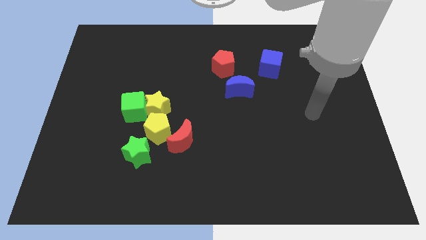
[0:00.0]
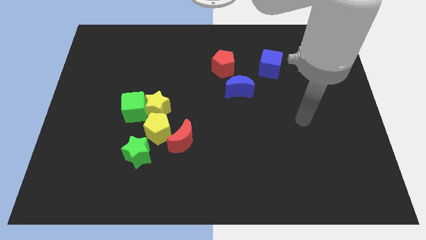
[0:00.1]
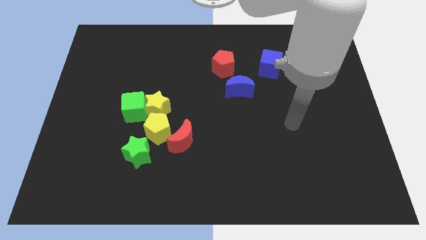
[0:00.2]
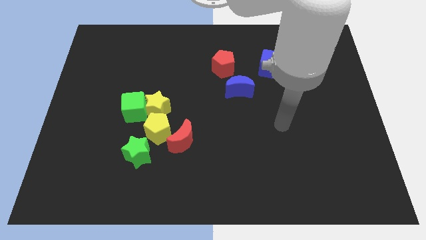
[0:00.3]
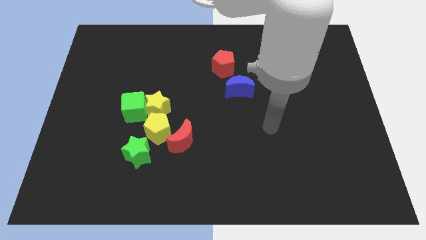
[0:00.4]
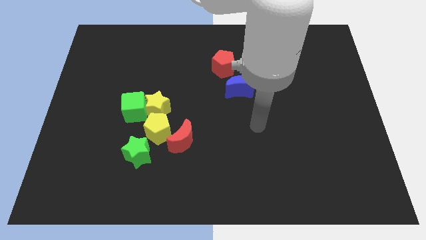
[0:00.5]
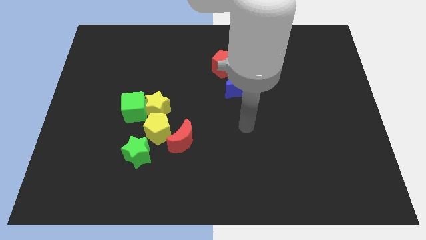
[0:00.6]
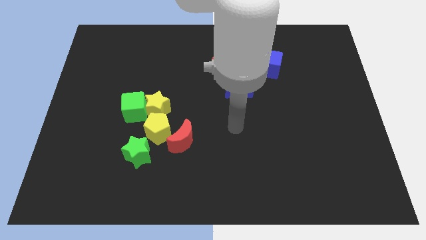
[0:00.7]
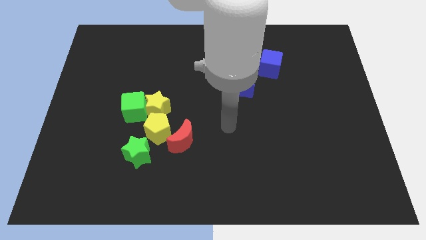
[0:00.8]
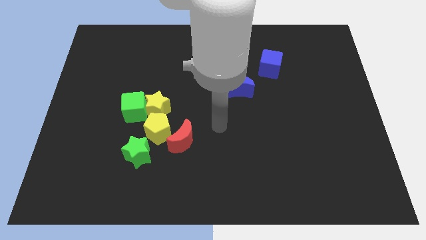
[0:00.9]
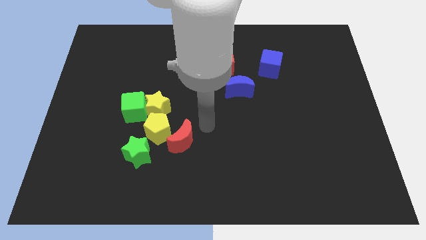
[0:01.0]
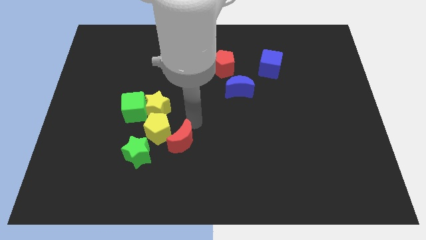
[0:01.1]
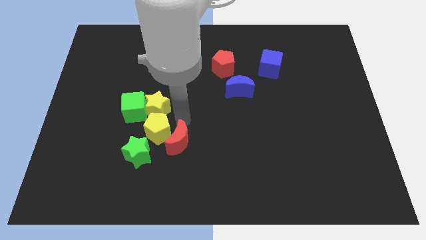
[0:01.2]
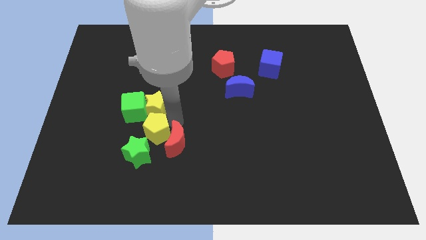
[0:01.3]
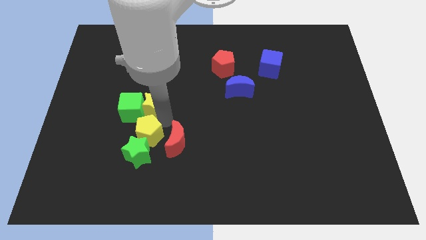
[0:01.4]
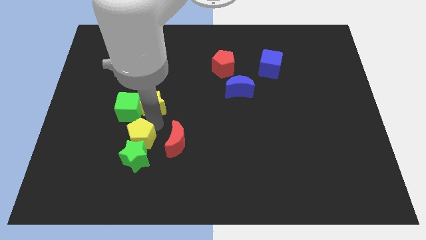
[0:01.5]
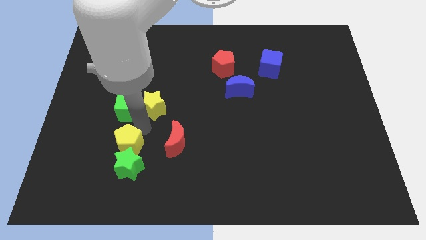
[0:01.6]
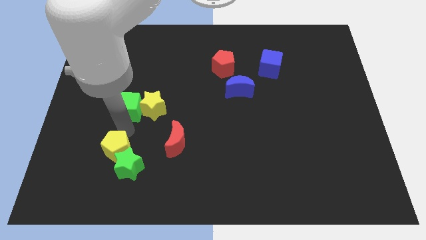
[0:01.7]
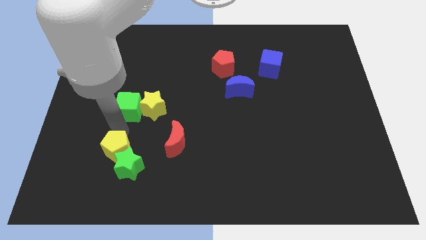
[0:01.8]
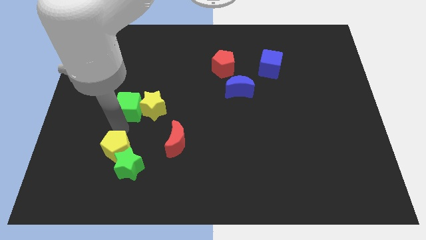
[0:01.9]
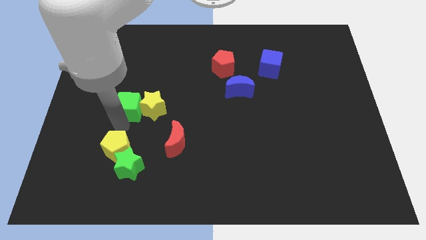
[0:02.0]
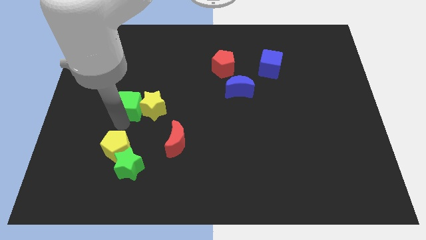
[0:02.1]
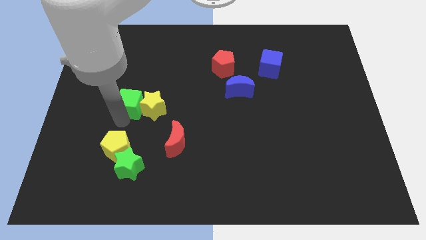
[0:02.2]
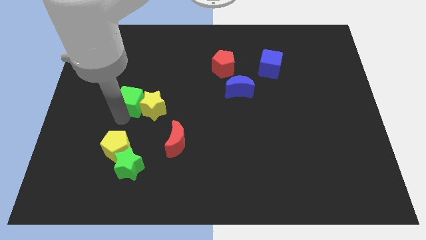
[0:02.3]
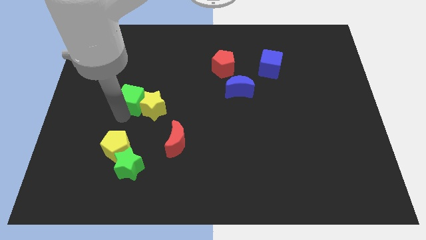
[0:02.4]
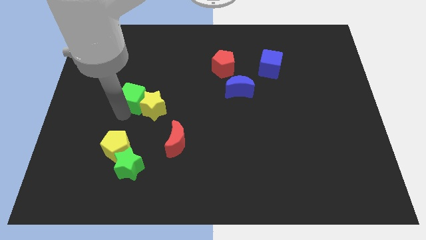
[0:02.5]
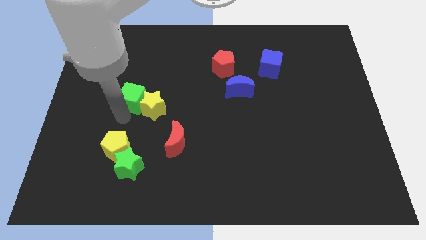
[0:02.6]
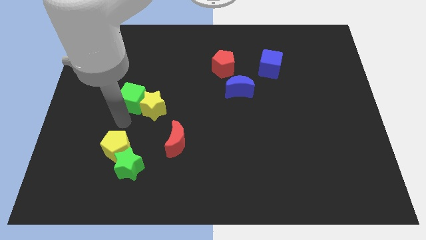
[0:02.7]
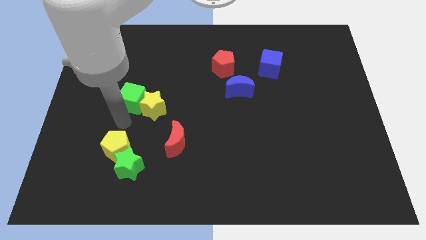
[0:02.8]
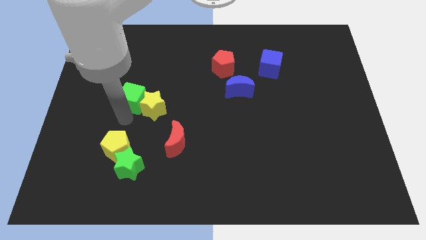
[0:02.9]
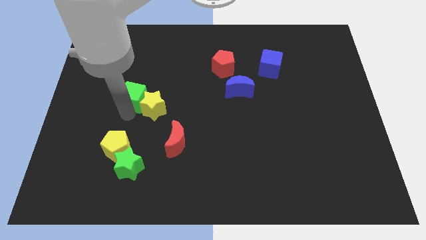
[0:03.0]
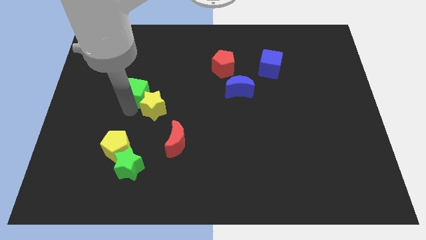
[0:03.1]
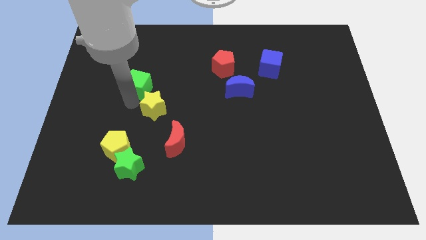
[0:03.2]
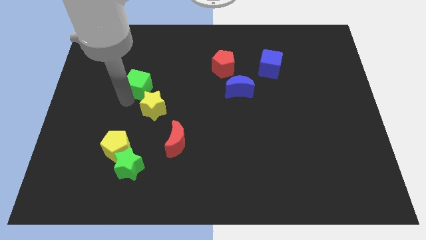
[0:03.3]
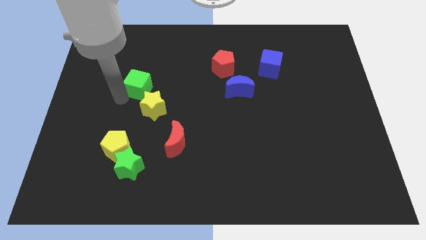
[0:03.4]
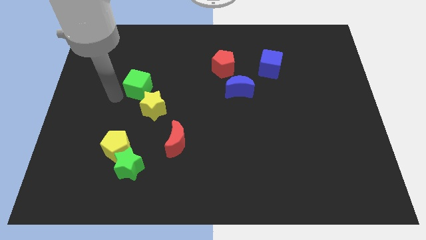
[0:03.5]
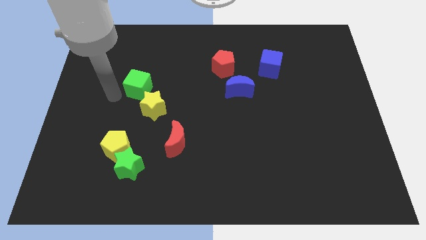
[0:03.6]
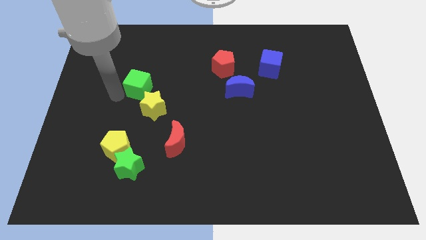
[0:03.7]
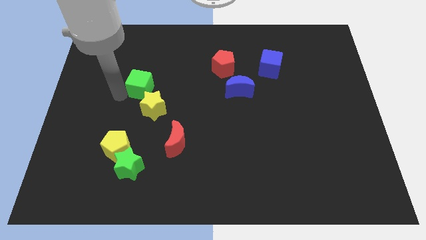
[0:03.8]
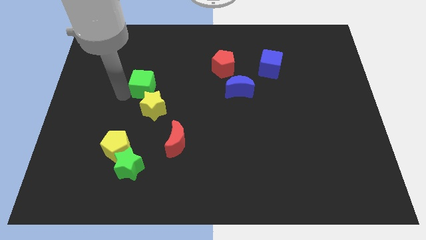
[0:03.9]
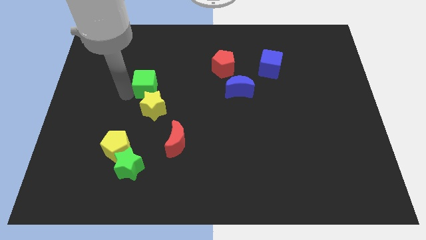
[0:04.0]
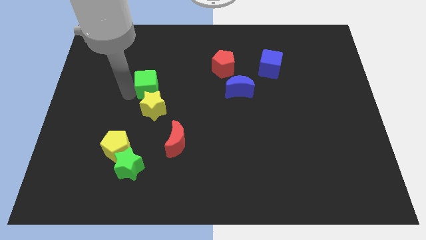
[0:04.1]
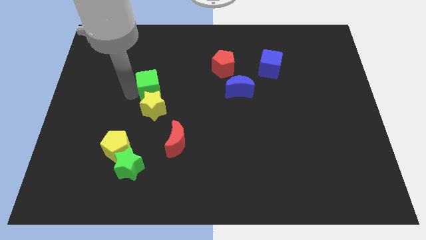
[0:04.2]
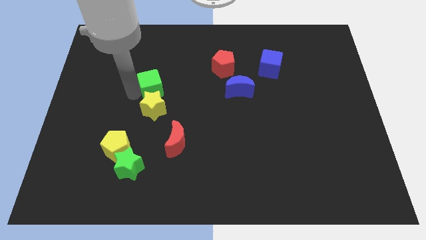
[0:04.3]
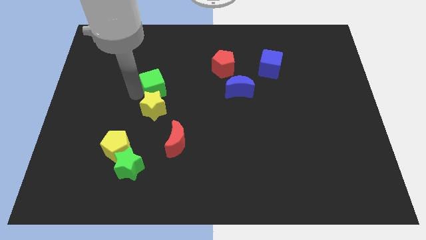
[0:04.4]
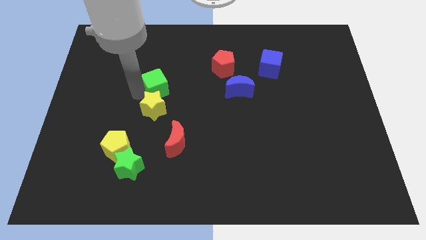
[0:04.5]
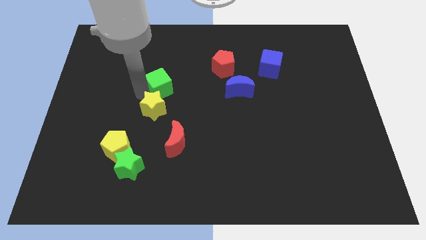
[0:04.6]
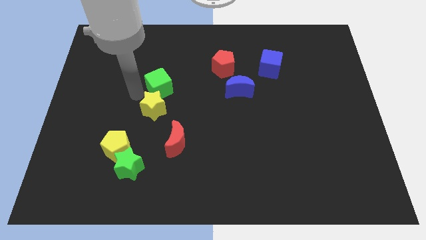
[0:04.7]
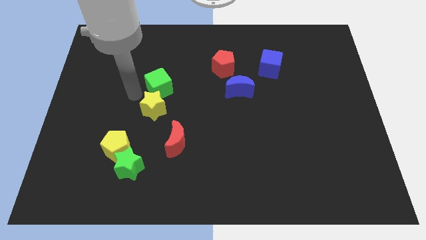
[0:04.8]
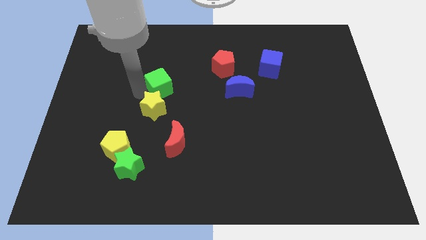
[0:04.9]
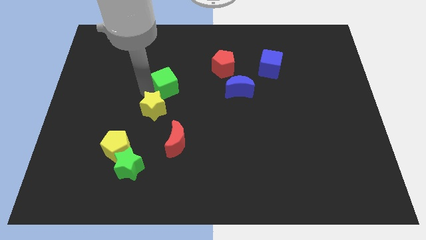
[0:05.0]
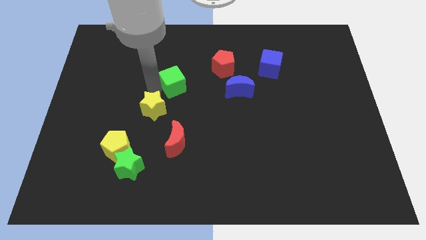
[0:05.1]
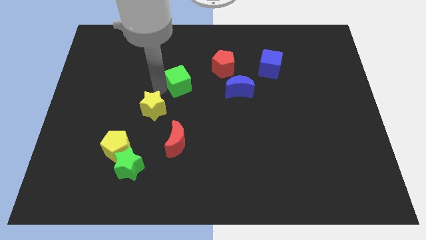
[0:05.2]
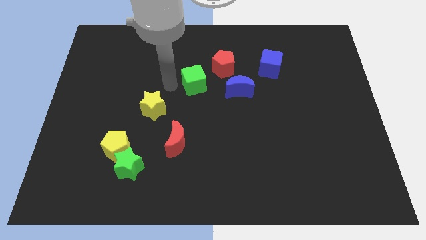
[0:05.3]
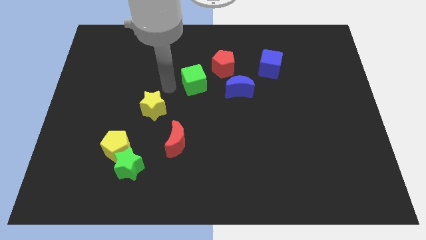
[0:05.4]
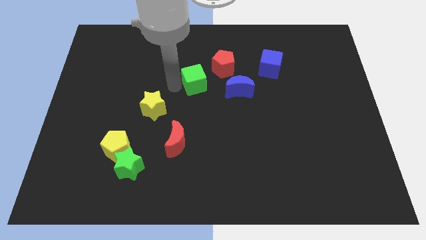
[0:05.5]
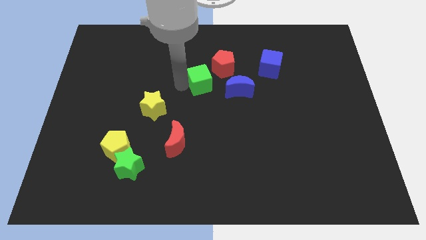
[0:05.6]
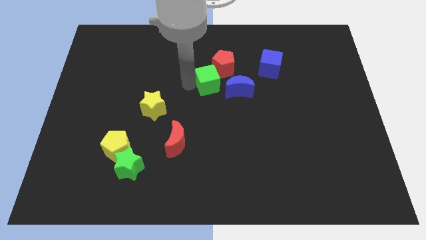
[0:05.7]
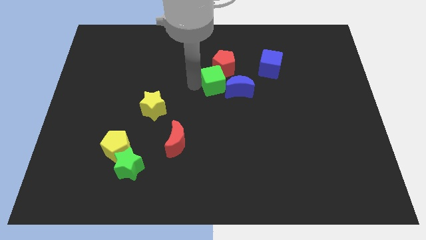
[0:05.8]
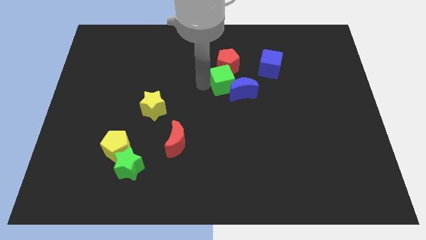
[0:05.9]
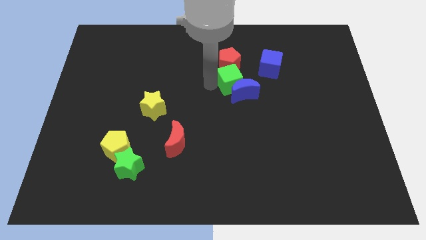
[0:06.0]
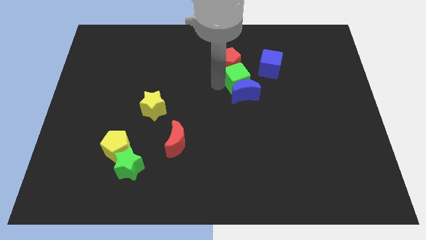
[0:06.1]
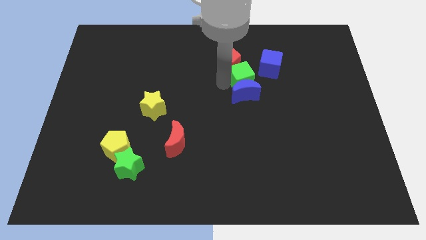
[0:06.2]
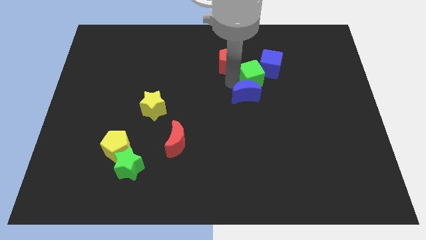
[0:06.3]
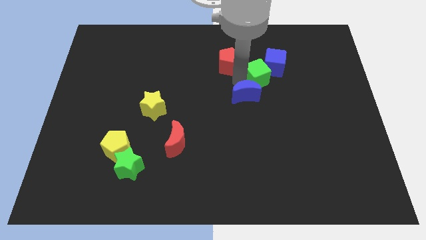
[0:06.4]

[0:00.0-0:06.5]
put the green cube towards the blue cube
